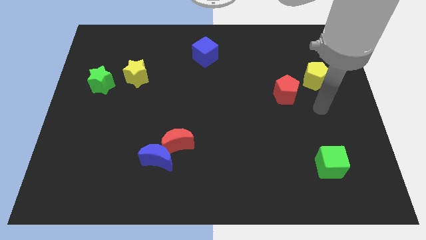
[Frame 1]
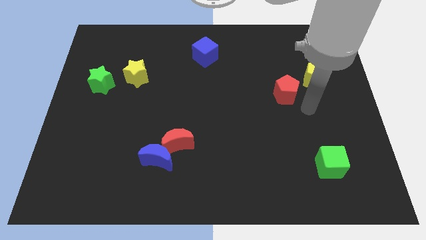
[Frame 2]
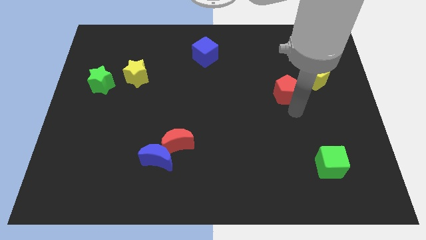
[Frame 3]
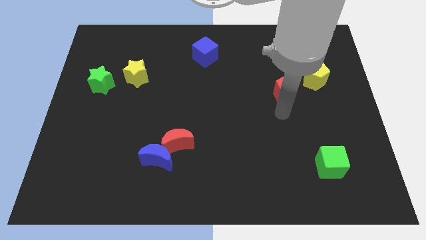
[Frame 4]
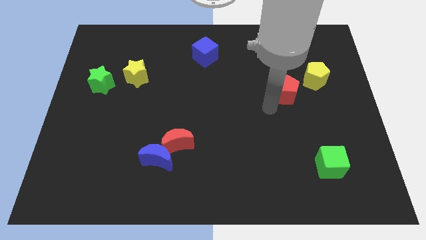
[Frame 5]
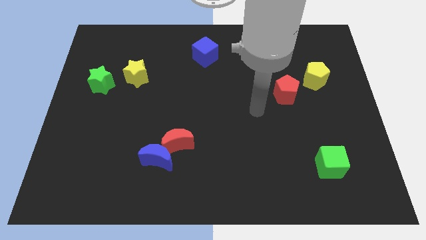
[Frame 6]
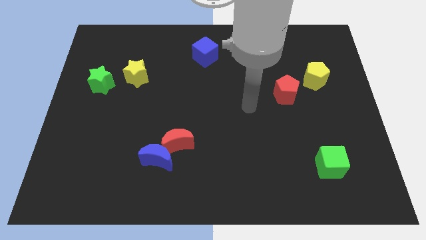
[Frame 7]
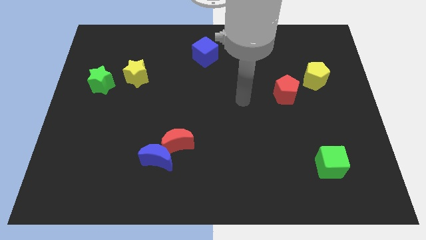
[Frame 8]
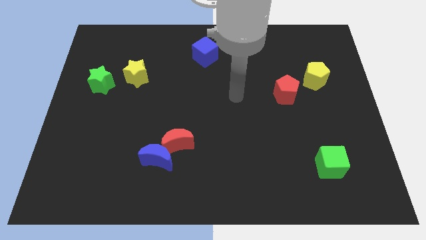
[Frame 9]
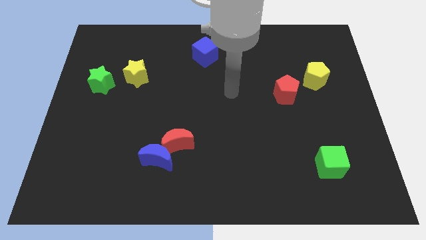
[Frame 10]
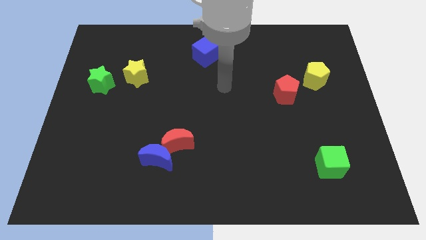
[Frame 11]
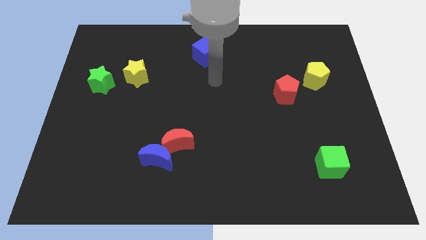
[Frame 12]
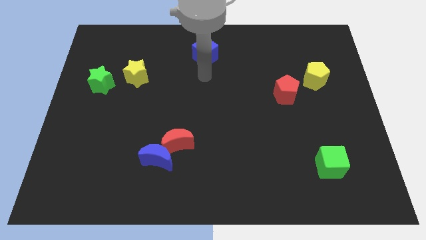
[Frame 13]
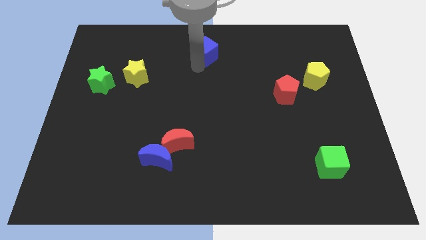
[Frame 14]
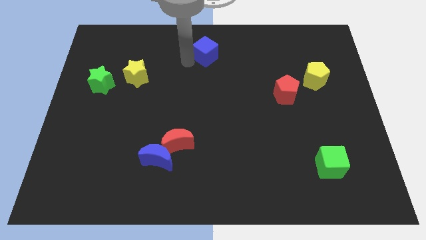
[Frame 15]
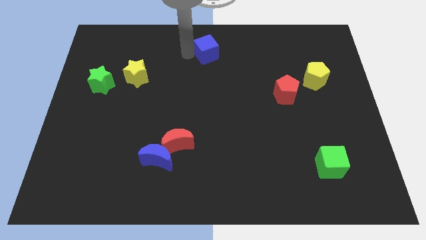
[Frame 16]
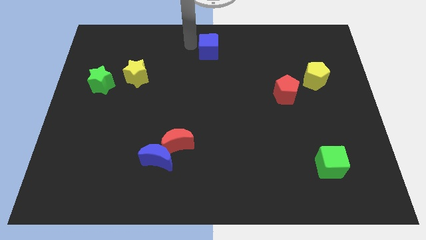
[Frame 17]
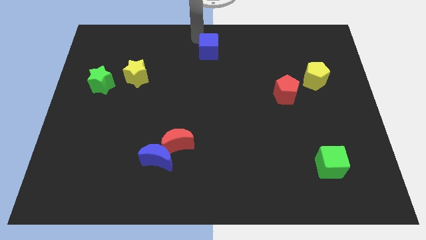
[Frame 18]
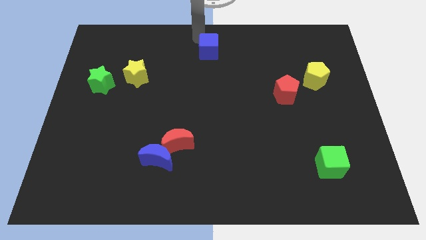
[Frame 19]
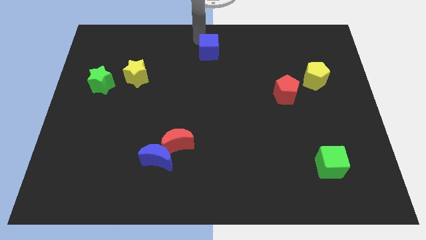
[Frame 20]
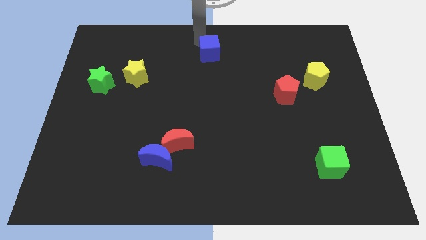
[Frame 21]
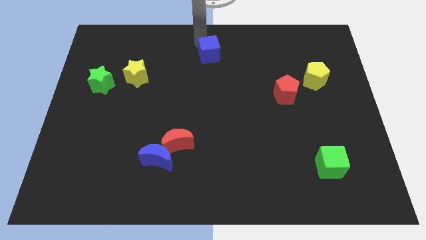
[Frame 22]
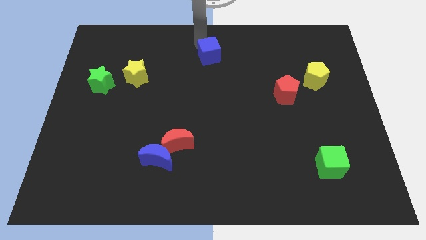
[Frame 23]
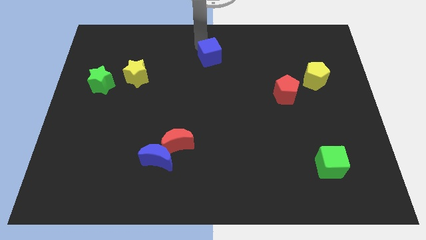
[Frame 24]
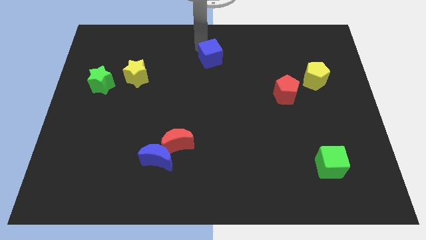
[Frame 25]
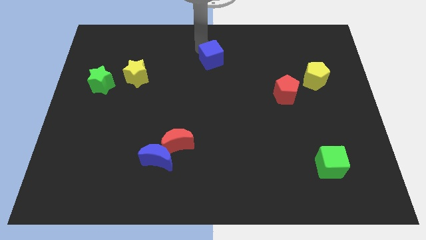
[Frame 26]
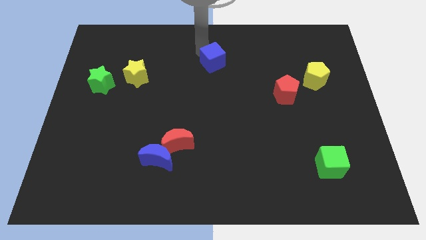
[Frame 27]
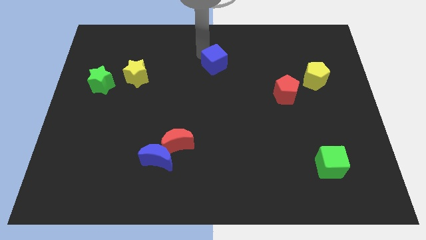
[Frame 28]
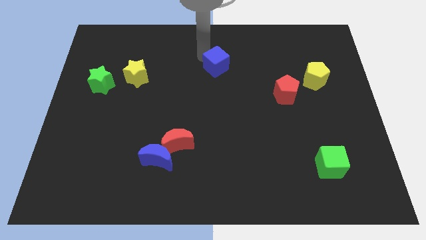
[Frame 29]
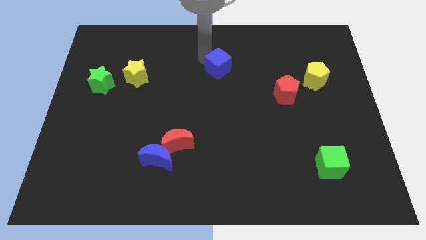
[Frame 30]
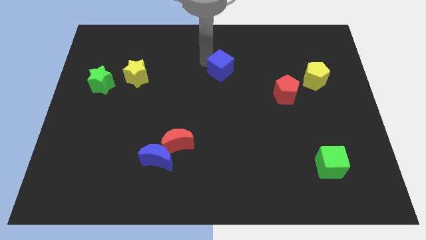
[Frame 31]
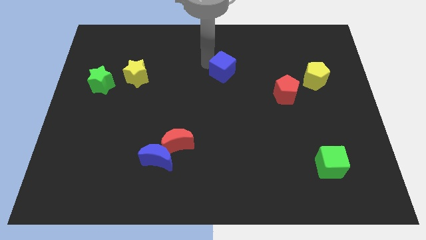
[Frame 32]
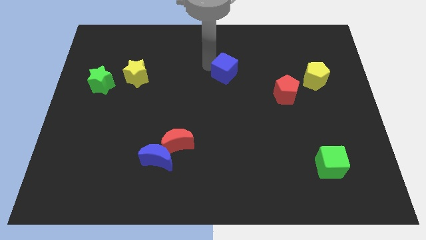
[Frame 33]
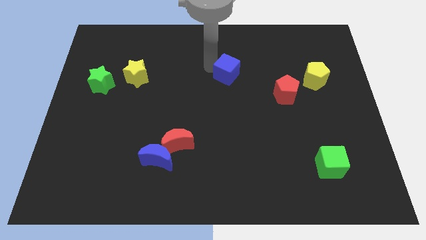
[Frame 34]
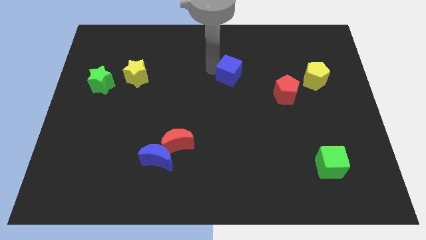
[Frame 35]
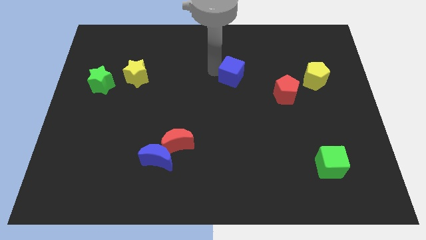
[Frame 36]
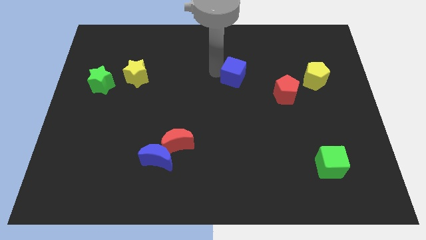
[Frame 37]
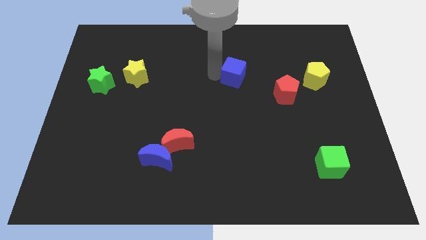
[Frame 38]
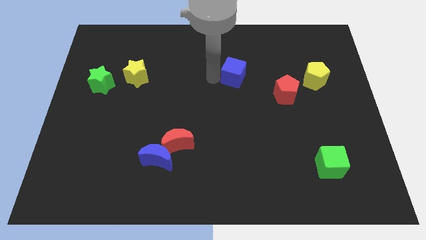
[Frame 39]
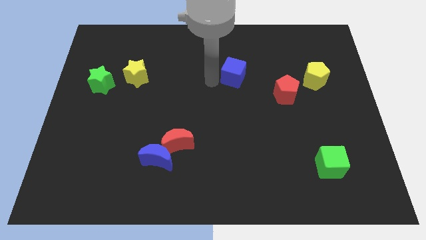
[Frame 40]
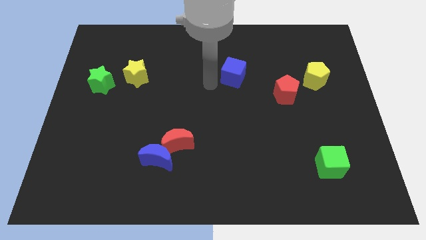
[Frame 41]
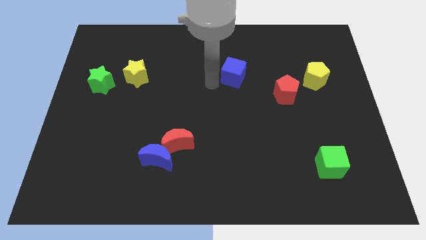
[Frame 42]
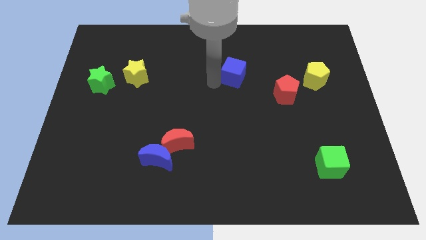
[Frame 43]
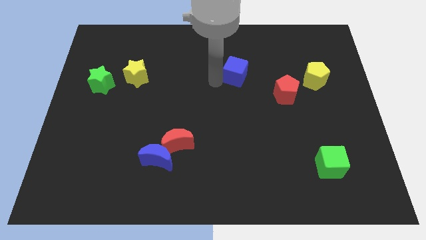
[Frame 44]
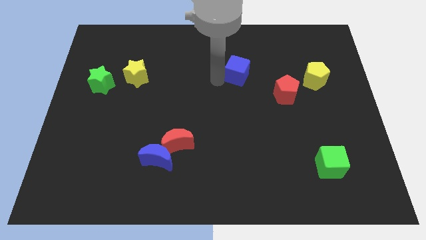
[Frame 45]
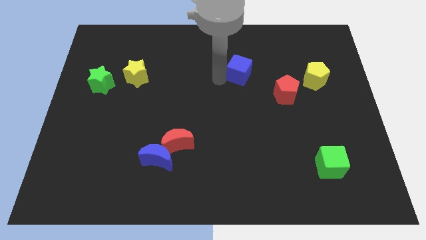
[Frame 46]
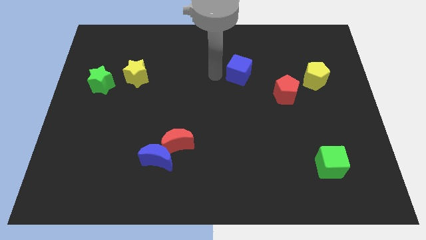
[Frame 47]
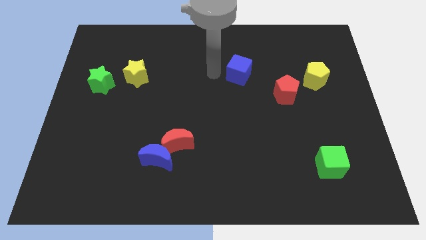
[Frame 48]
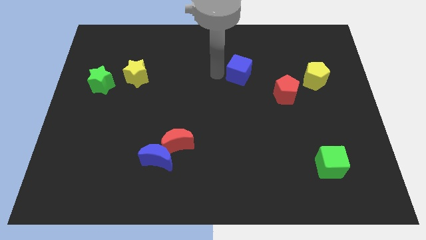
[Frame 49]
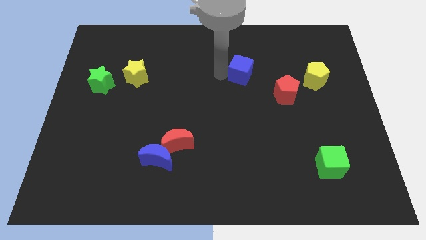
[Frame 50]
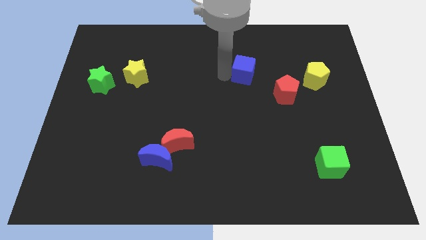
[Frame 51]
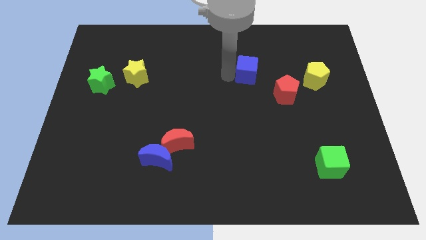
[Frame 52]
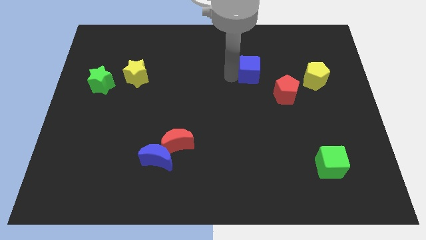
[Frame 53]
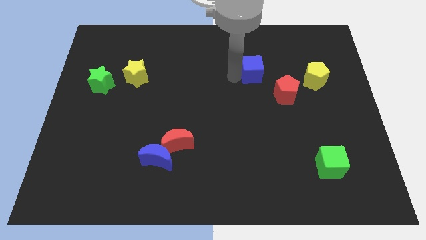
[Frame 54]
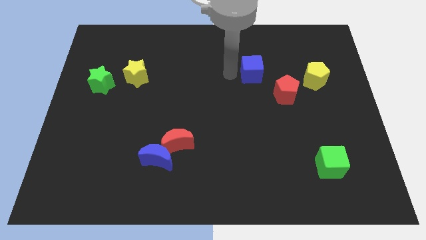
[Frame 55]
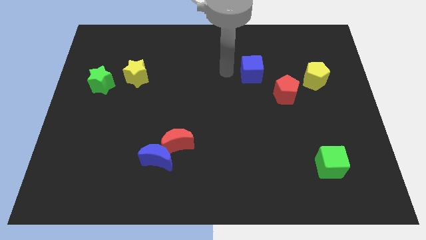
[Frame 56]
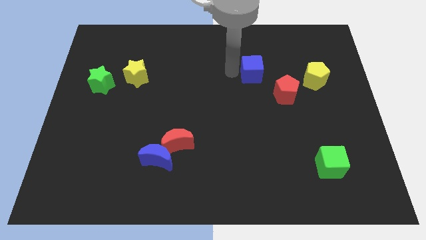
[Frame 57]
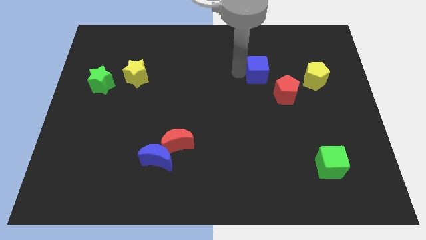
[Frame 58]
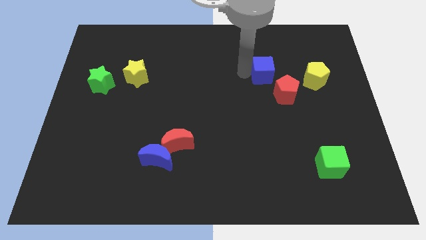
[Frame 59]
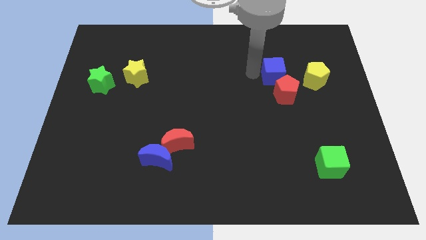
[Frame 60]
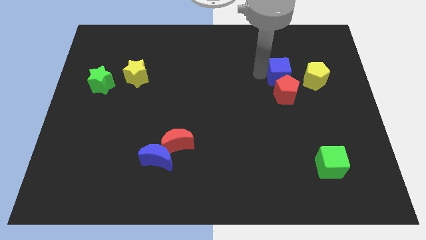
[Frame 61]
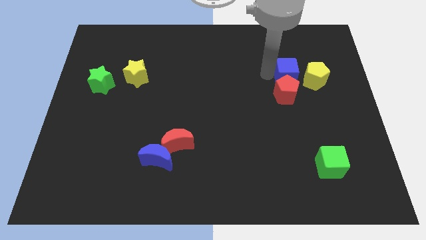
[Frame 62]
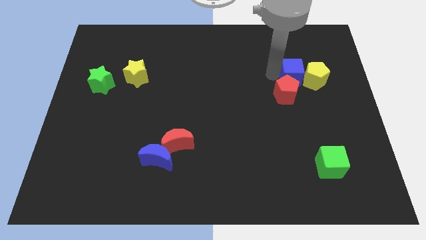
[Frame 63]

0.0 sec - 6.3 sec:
put the blue cube to the yellow pentagon
